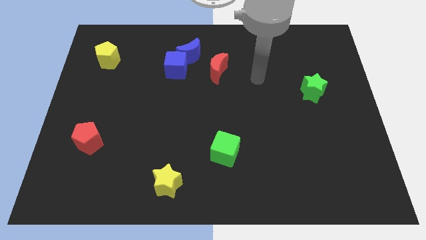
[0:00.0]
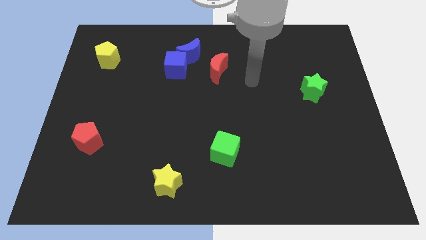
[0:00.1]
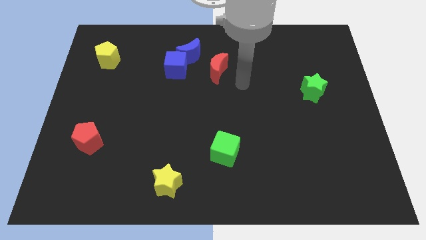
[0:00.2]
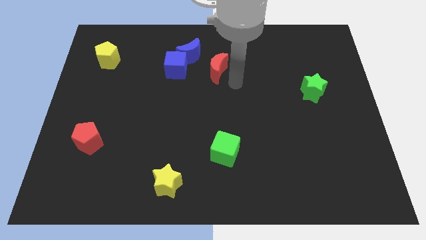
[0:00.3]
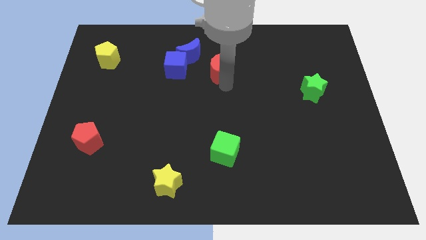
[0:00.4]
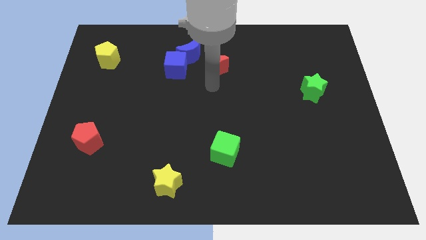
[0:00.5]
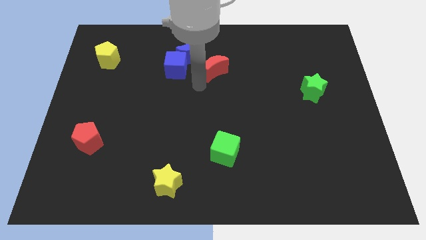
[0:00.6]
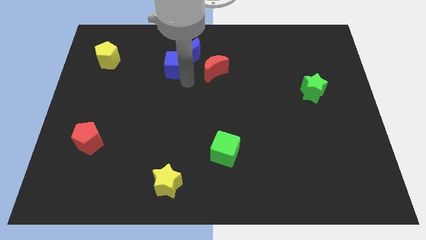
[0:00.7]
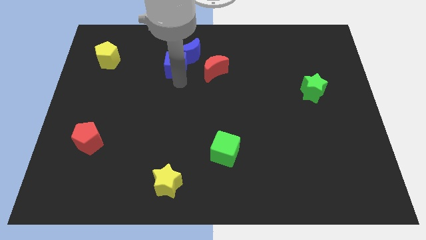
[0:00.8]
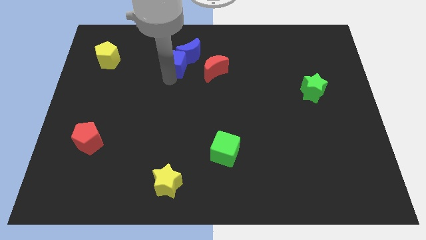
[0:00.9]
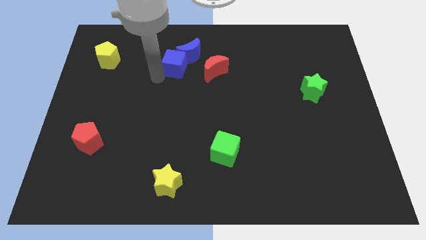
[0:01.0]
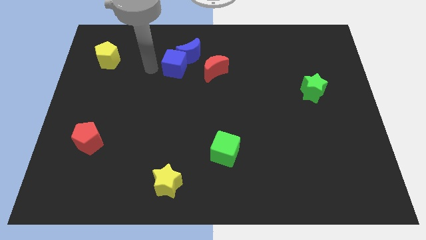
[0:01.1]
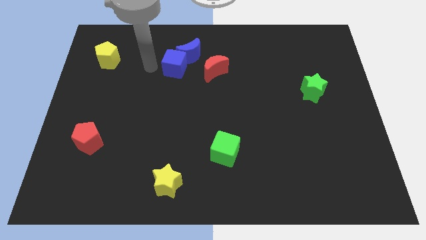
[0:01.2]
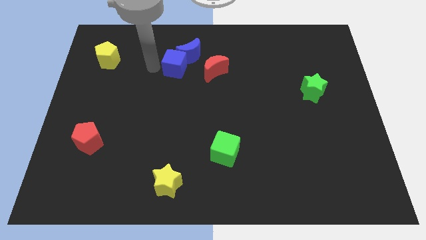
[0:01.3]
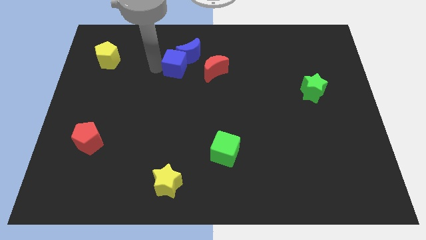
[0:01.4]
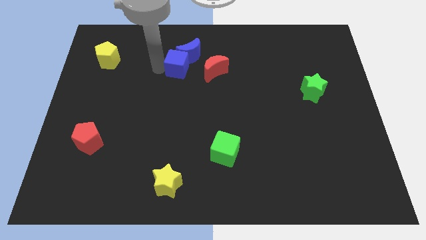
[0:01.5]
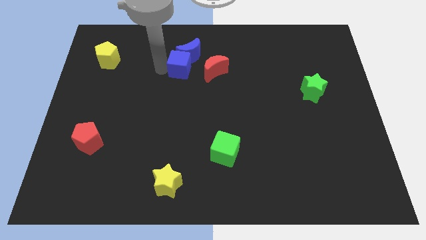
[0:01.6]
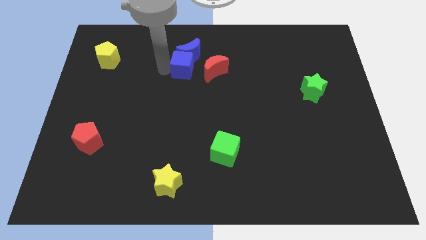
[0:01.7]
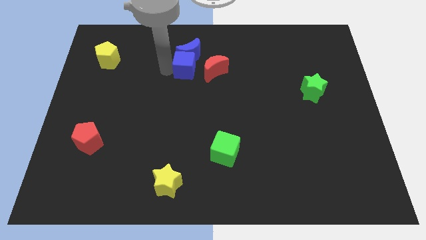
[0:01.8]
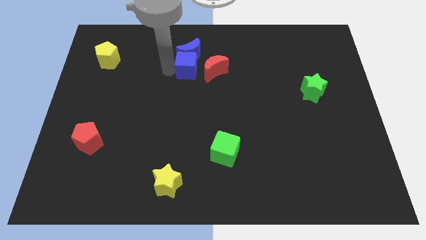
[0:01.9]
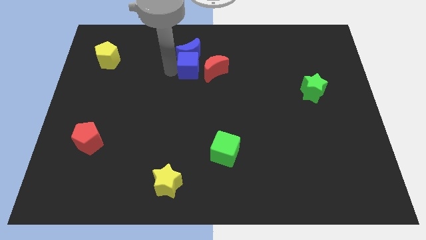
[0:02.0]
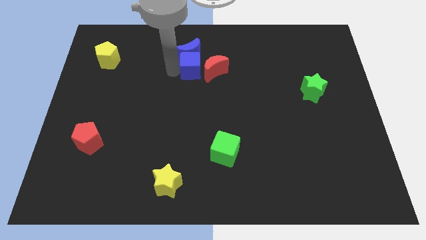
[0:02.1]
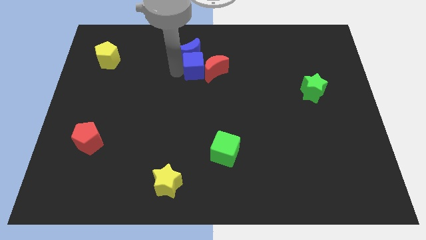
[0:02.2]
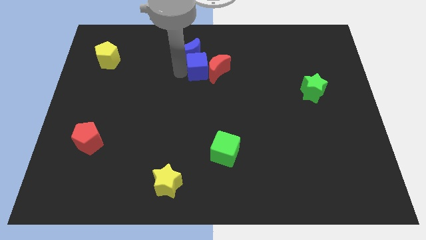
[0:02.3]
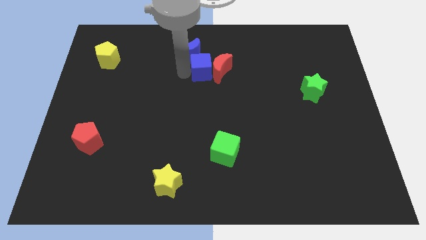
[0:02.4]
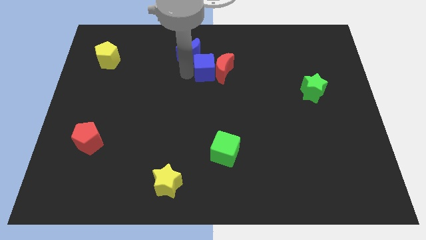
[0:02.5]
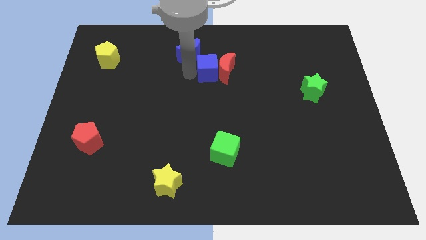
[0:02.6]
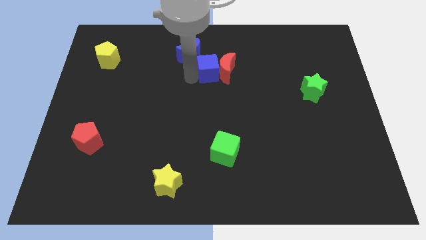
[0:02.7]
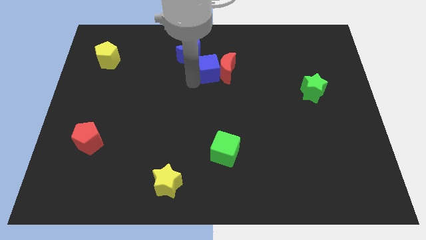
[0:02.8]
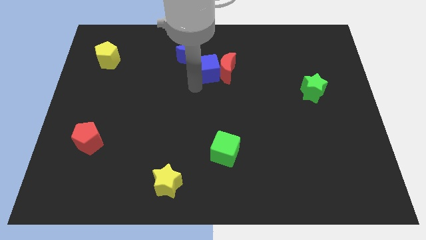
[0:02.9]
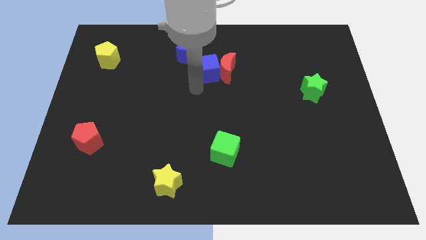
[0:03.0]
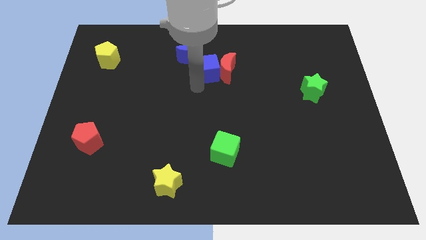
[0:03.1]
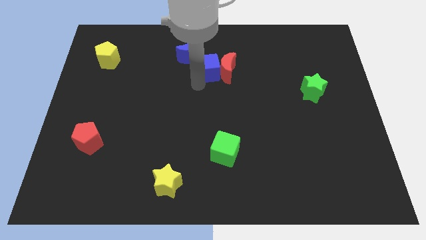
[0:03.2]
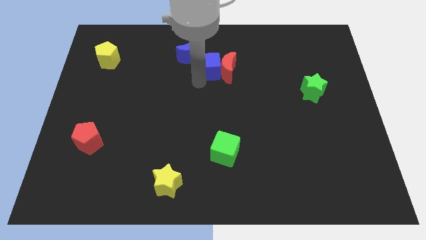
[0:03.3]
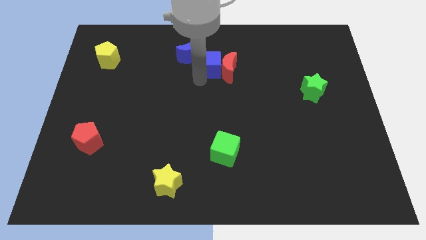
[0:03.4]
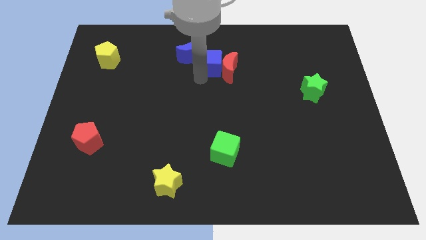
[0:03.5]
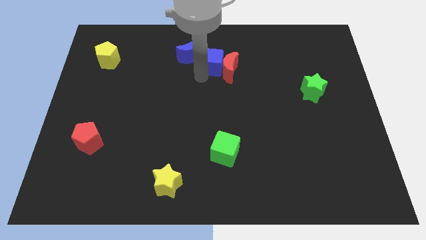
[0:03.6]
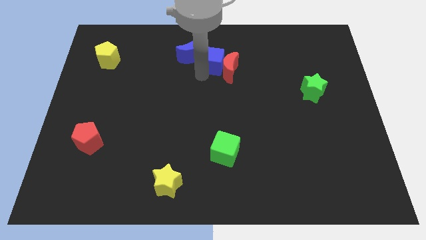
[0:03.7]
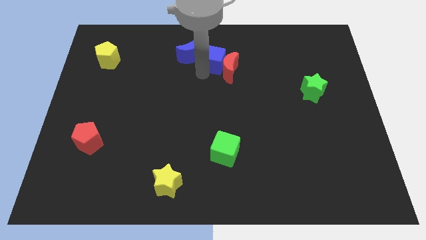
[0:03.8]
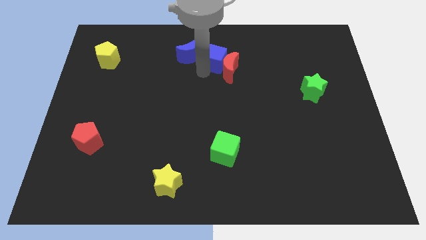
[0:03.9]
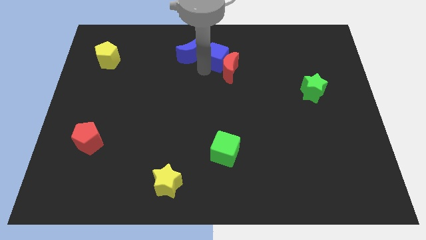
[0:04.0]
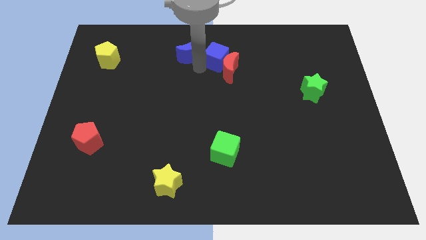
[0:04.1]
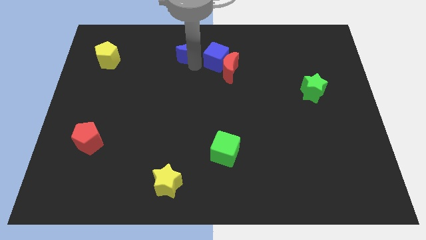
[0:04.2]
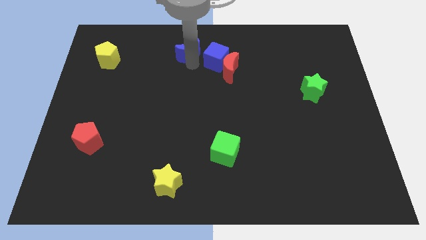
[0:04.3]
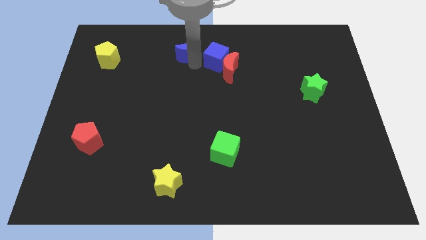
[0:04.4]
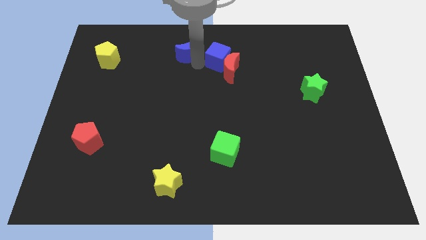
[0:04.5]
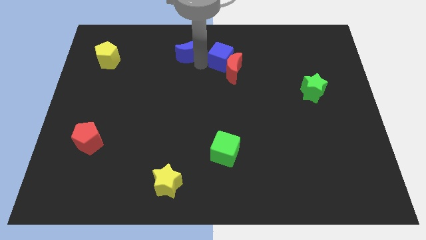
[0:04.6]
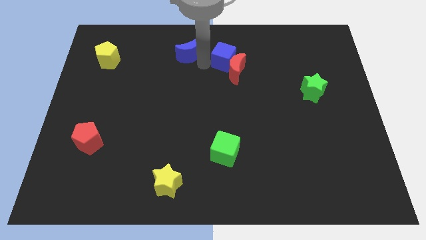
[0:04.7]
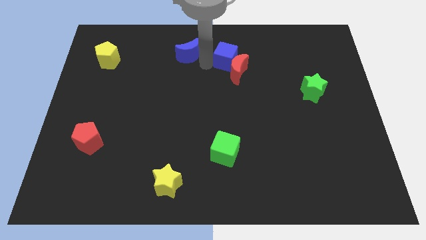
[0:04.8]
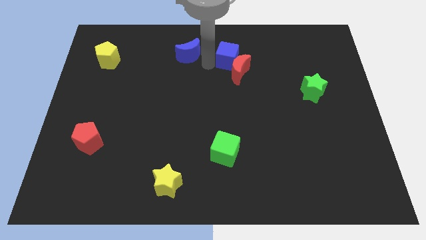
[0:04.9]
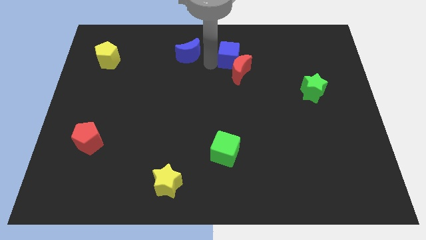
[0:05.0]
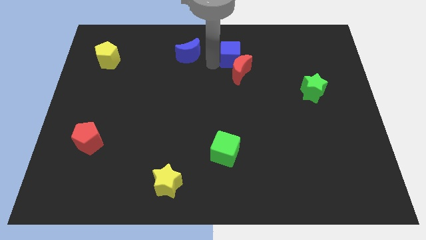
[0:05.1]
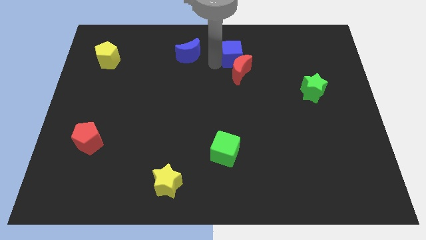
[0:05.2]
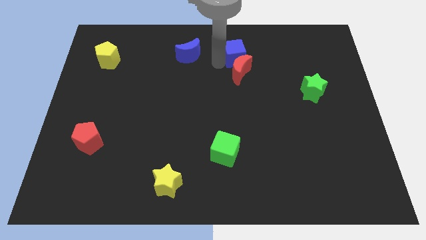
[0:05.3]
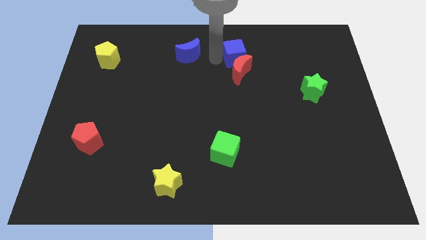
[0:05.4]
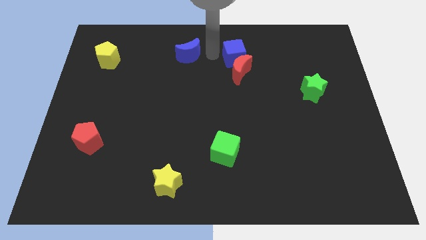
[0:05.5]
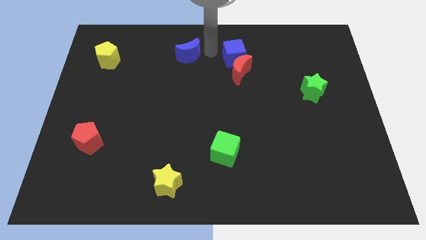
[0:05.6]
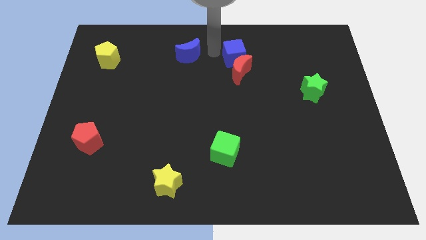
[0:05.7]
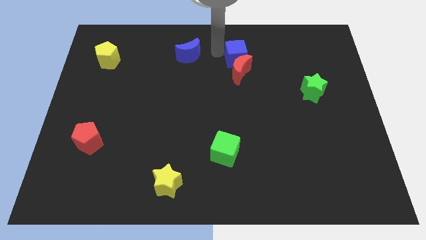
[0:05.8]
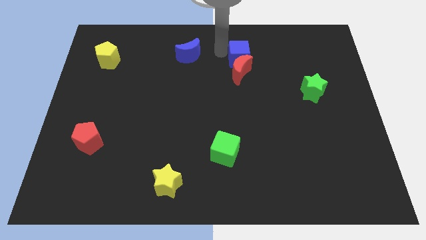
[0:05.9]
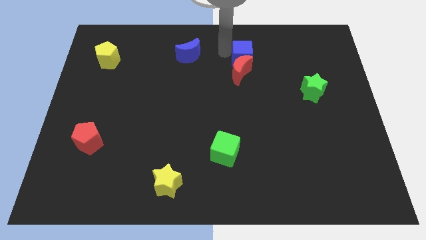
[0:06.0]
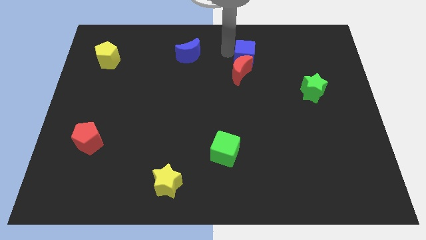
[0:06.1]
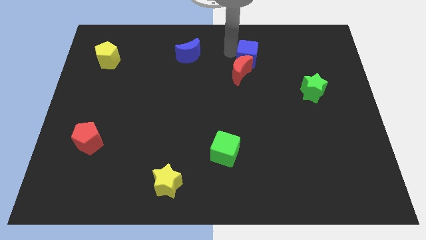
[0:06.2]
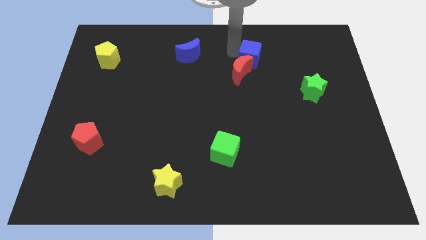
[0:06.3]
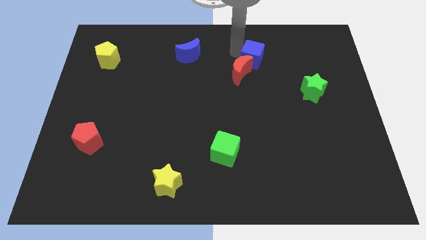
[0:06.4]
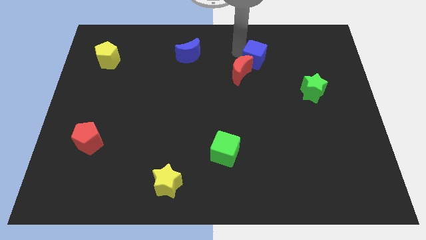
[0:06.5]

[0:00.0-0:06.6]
slide the blue cube to the right

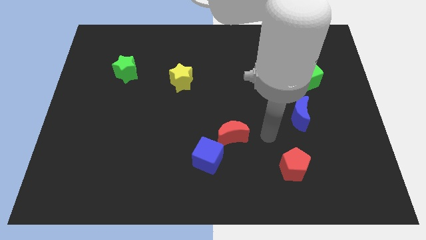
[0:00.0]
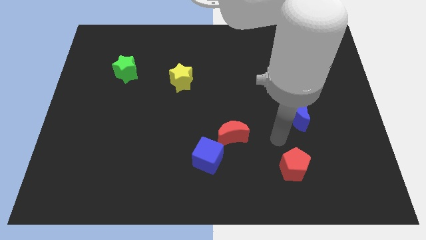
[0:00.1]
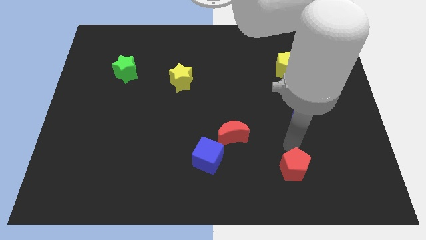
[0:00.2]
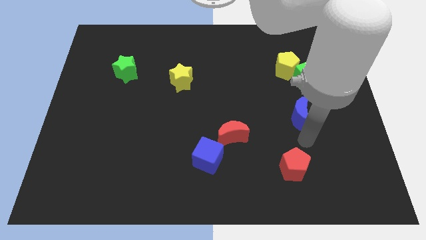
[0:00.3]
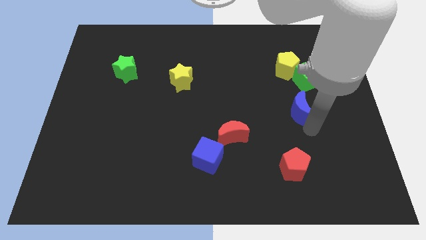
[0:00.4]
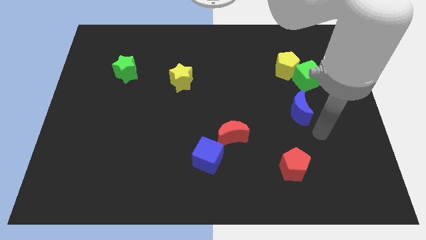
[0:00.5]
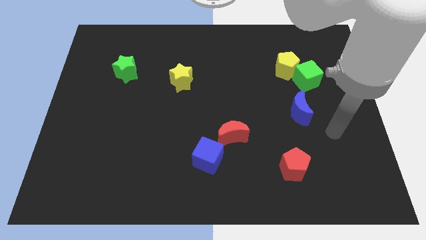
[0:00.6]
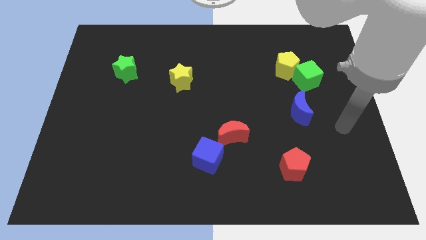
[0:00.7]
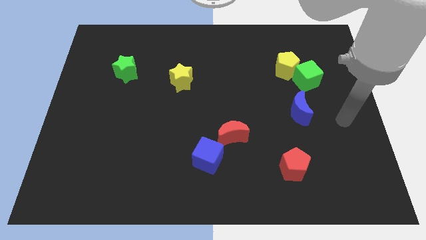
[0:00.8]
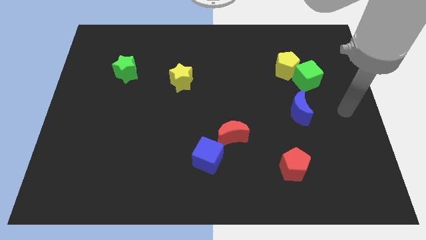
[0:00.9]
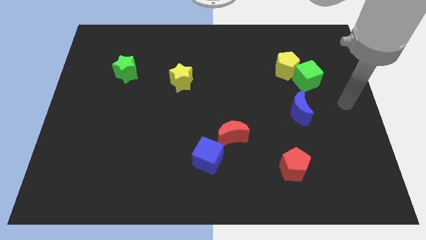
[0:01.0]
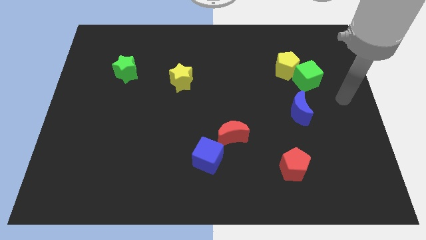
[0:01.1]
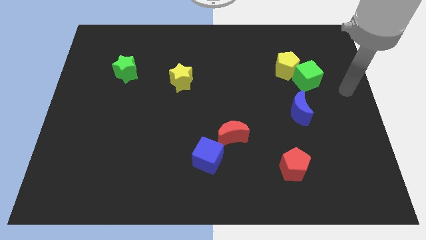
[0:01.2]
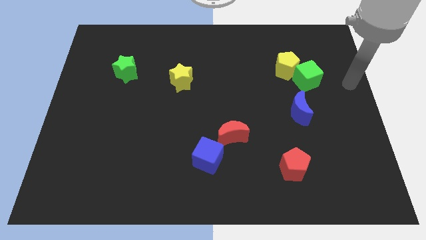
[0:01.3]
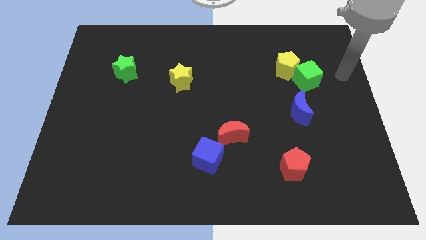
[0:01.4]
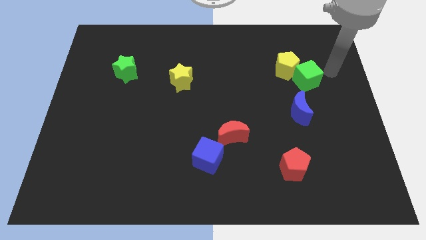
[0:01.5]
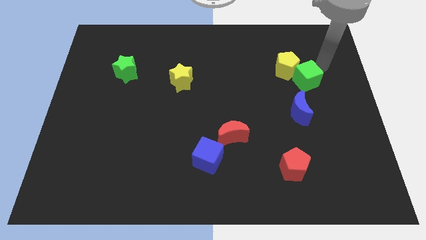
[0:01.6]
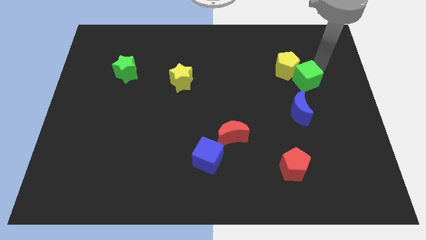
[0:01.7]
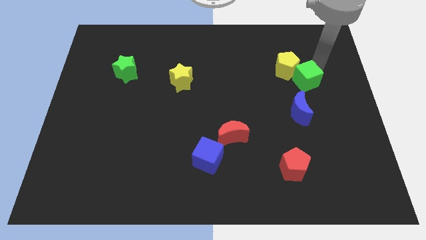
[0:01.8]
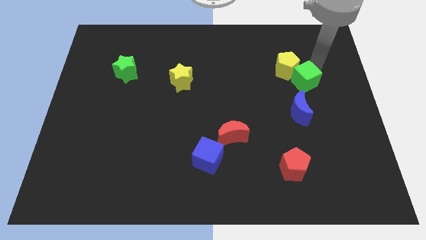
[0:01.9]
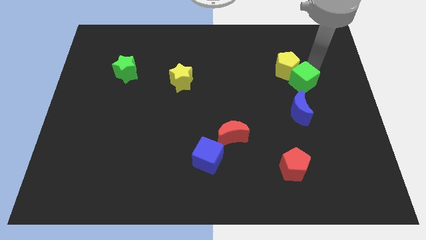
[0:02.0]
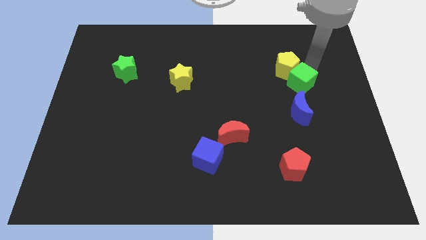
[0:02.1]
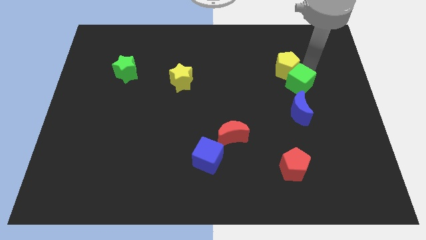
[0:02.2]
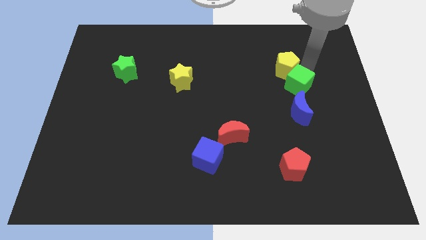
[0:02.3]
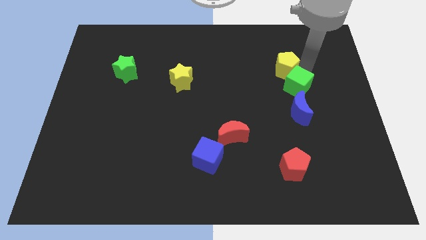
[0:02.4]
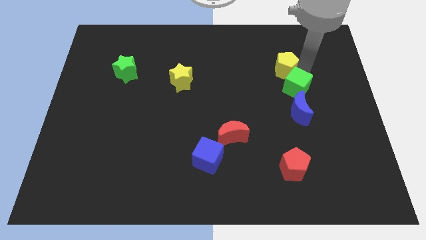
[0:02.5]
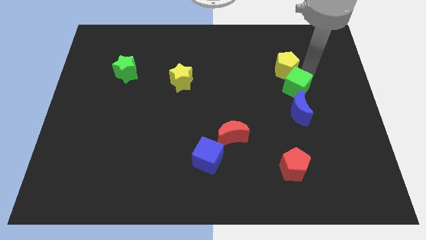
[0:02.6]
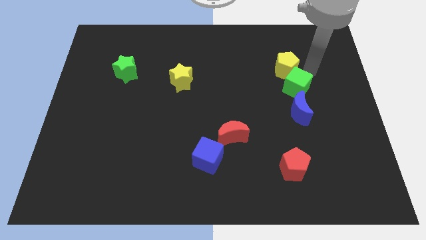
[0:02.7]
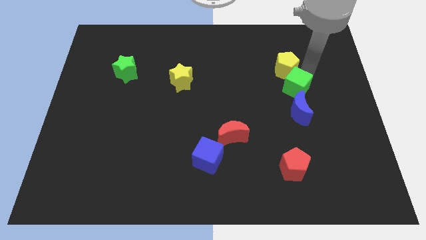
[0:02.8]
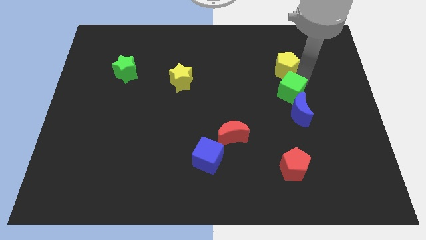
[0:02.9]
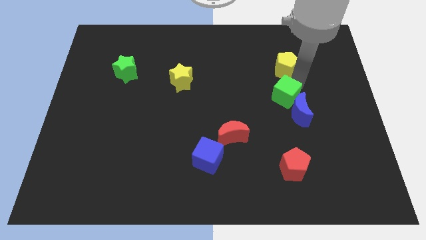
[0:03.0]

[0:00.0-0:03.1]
move the green cube a little downwards and then to the left
